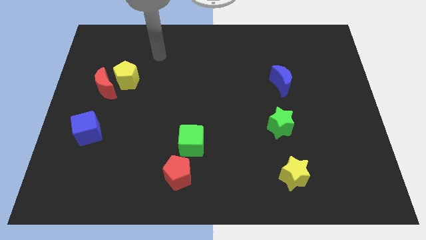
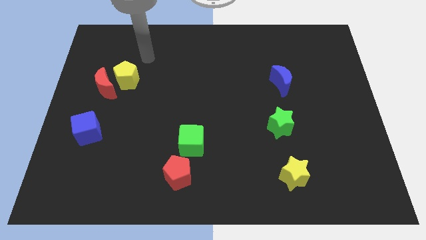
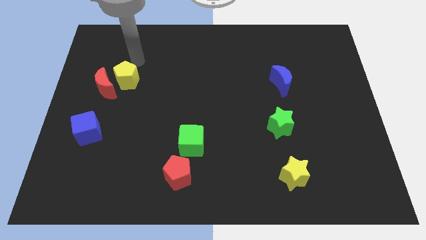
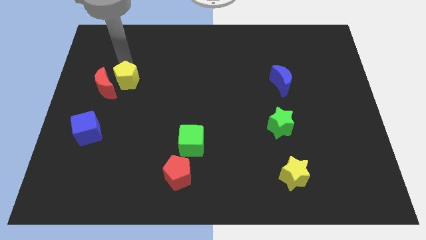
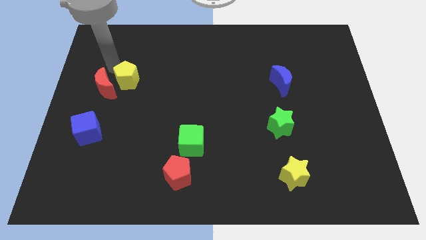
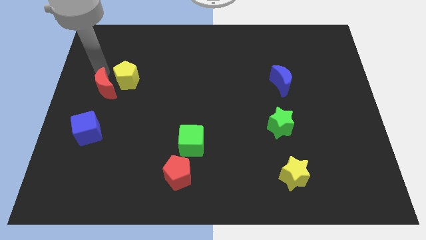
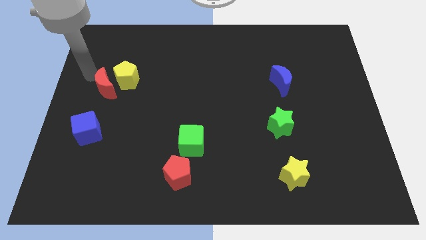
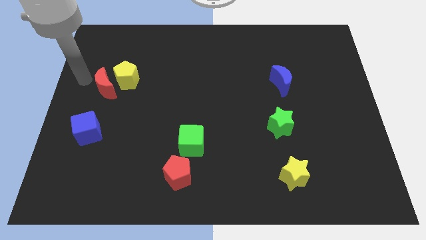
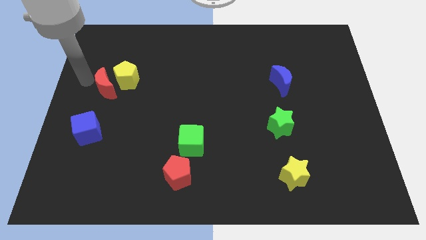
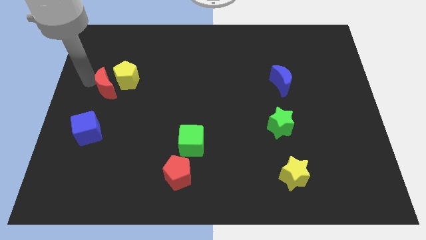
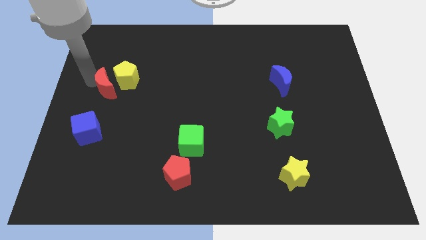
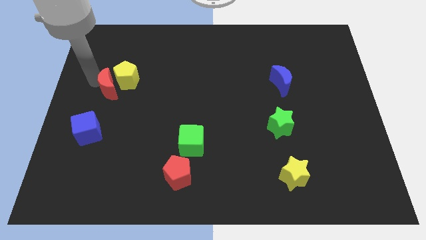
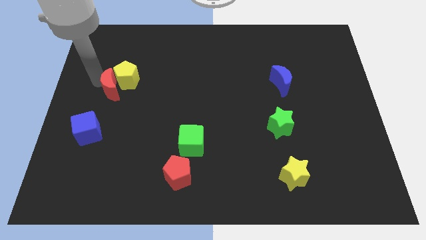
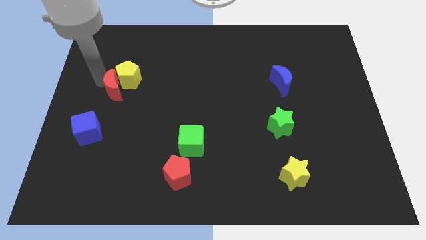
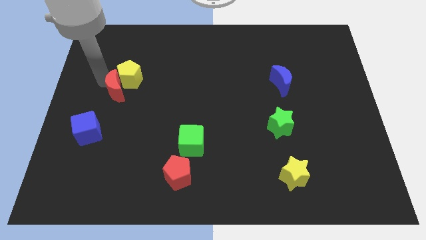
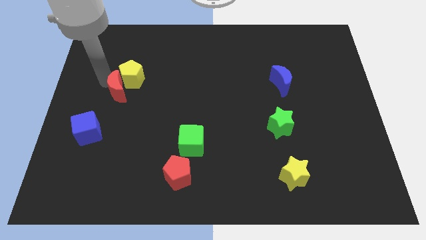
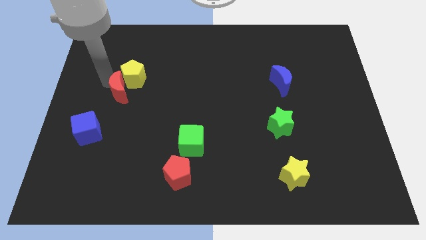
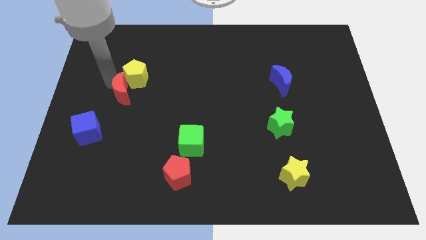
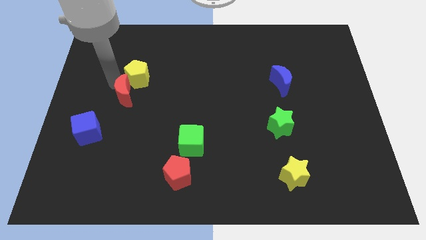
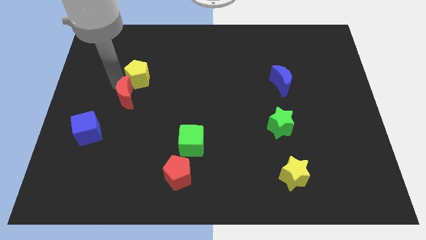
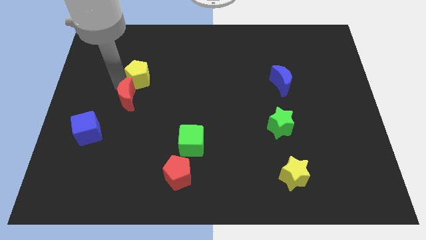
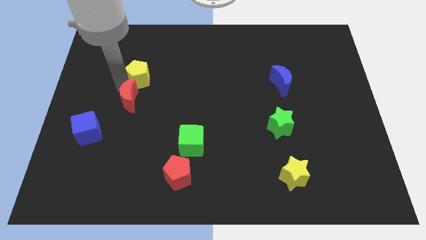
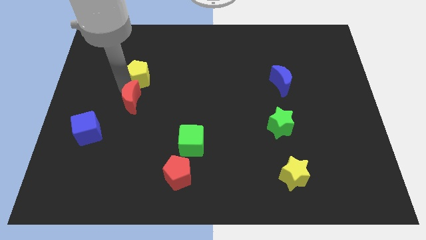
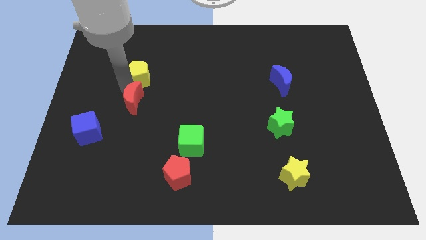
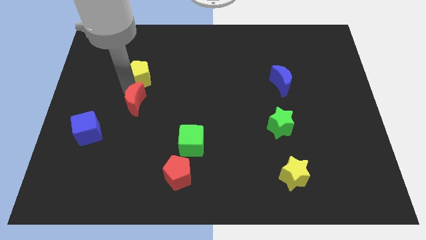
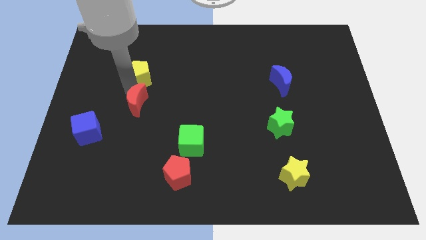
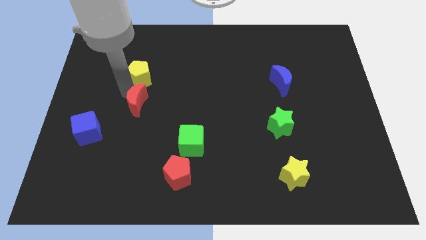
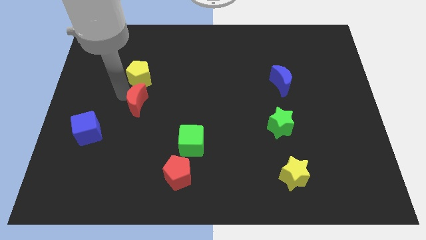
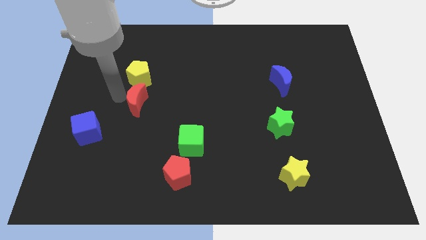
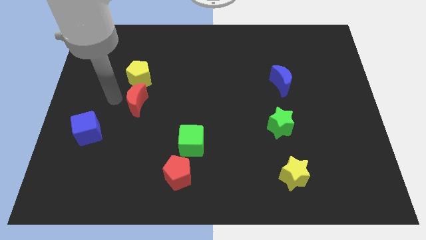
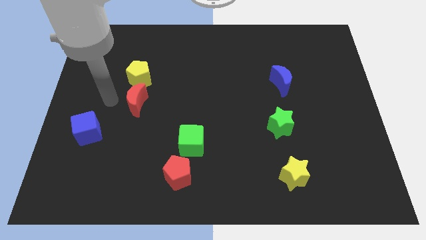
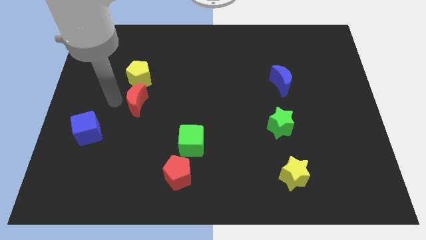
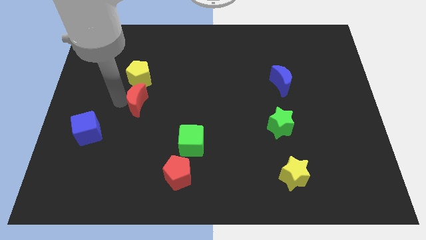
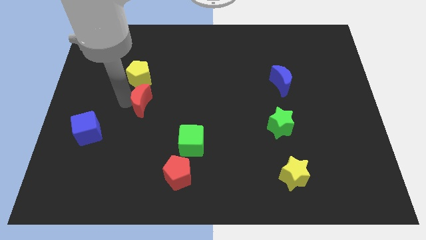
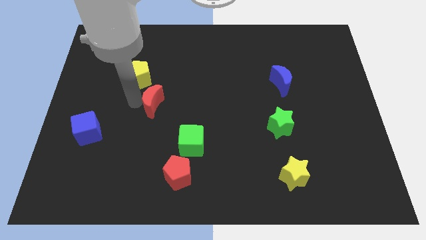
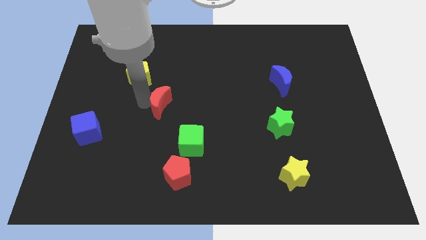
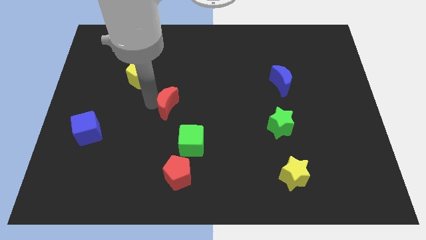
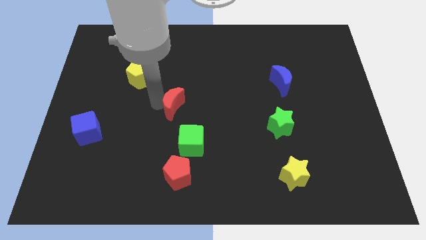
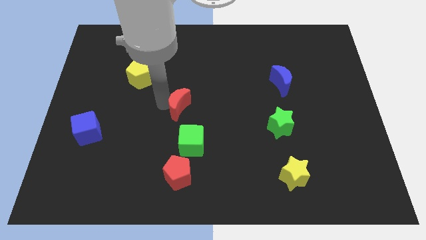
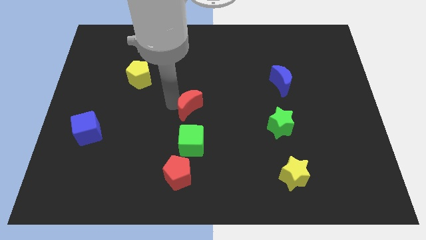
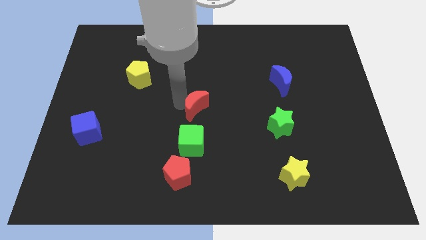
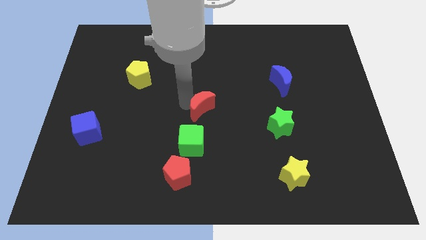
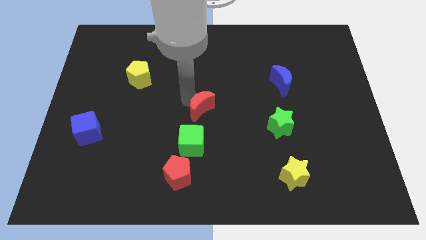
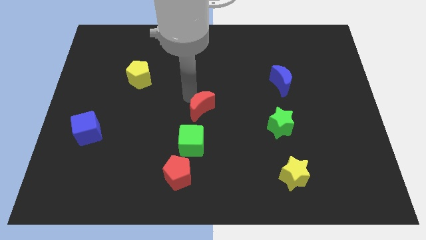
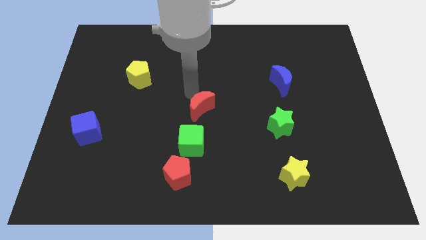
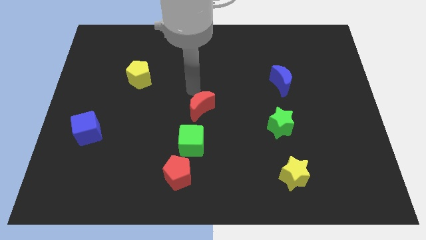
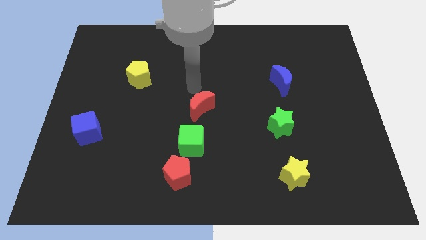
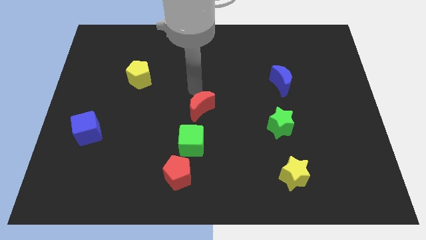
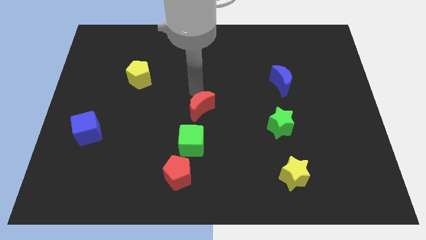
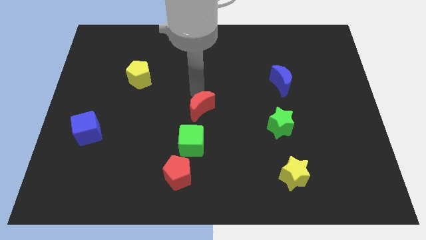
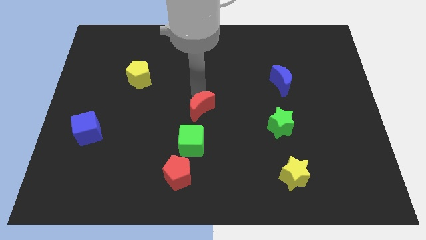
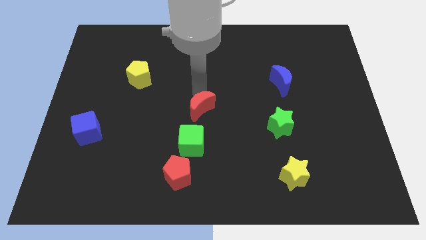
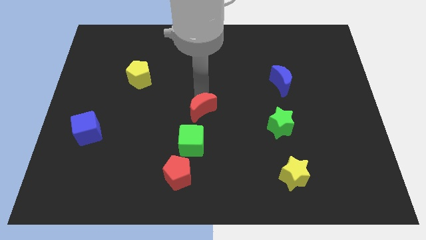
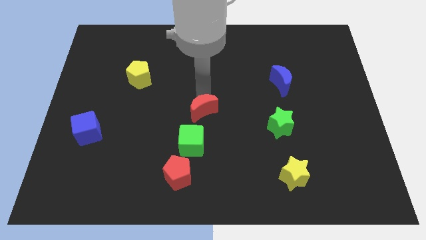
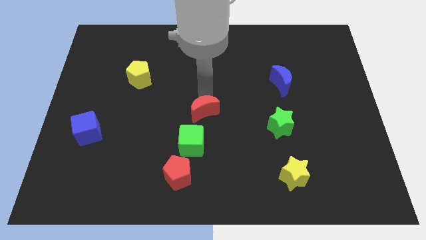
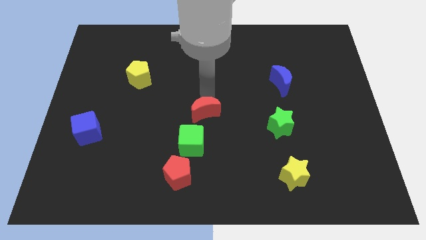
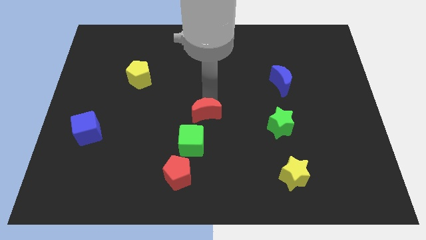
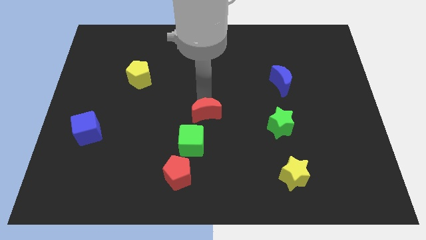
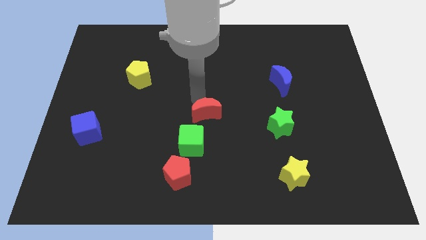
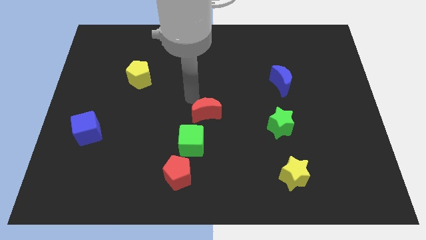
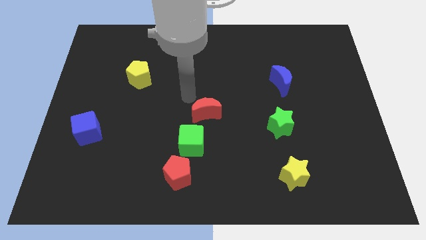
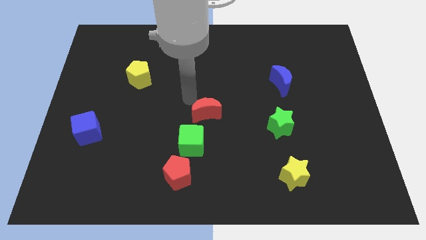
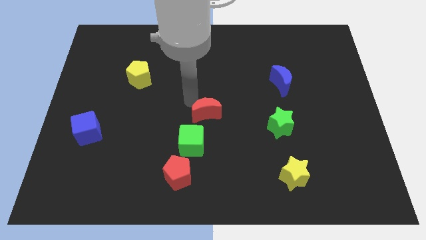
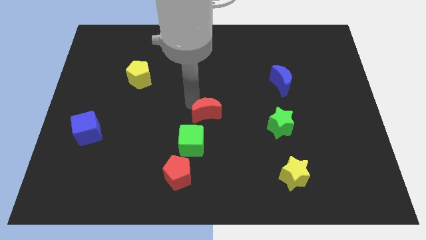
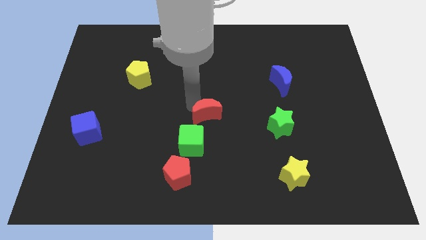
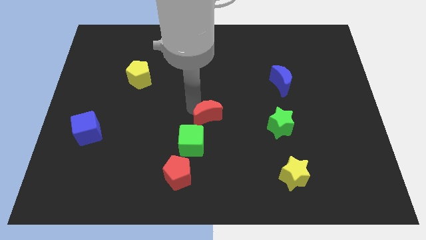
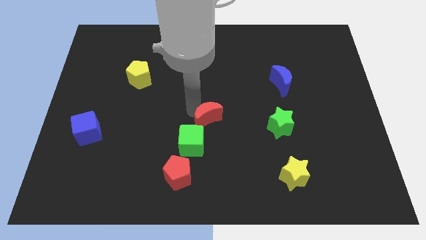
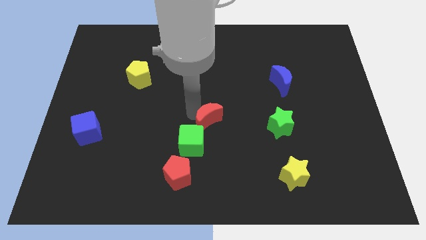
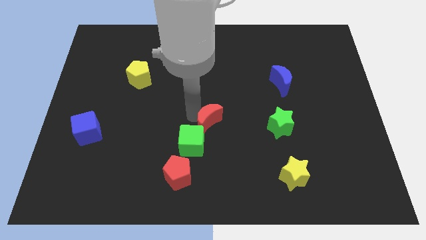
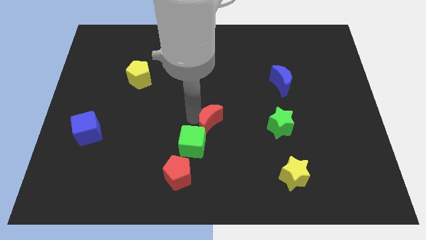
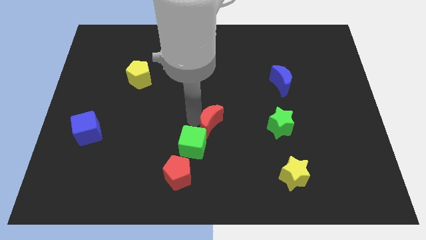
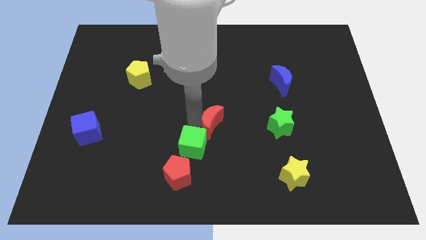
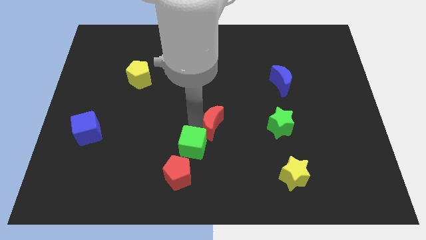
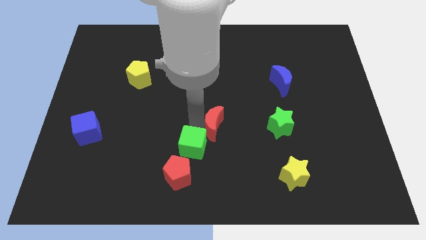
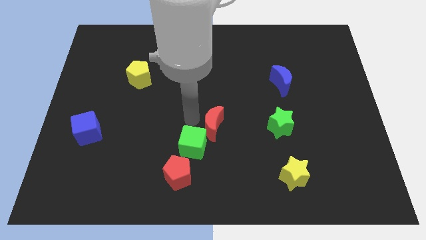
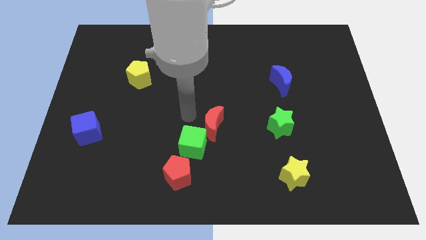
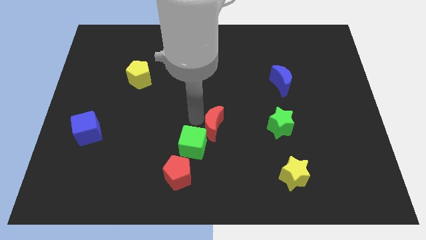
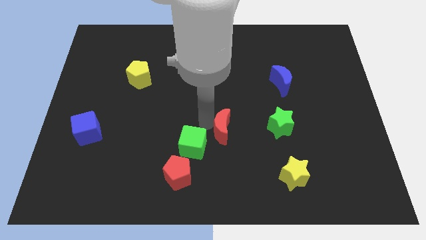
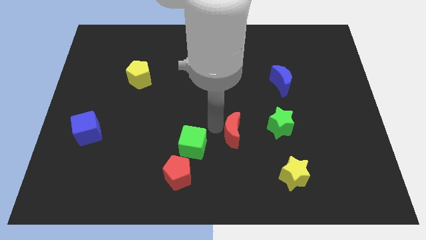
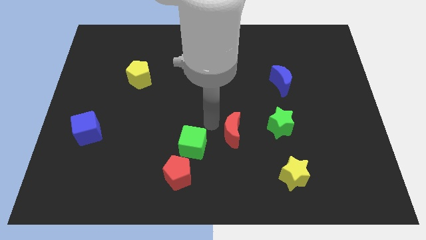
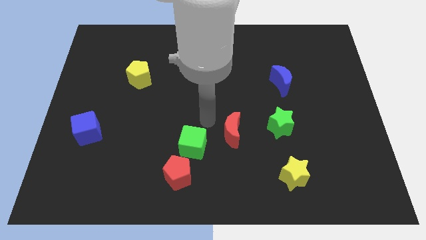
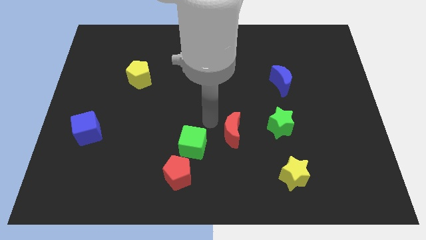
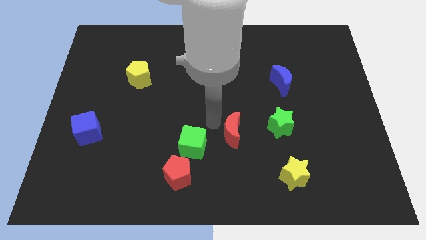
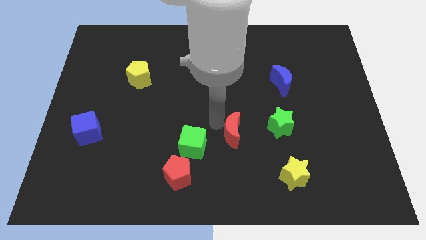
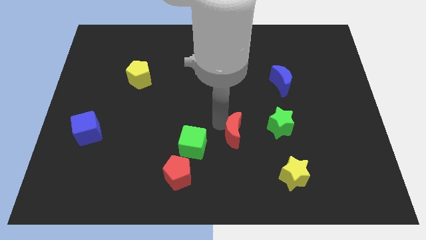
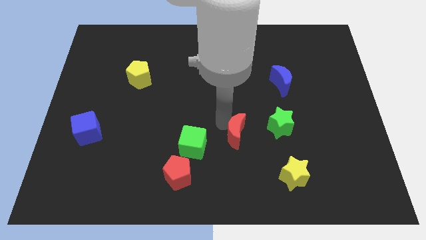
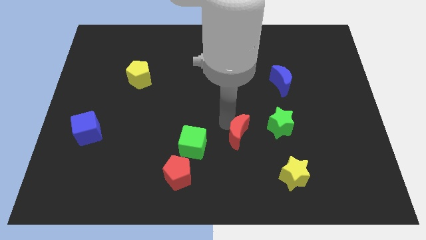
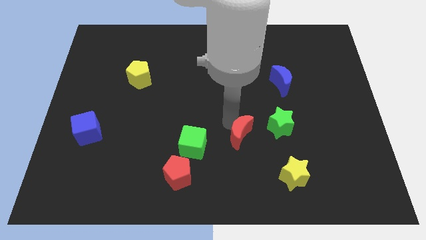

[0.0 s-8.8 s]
put the red moon diagonally down and to the left of the green star
